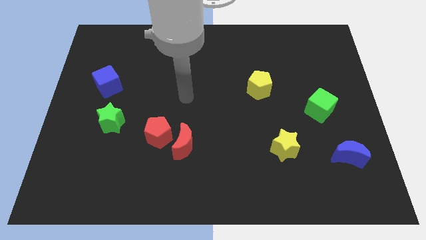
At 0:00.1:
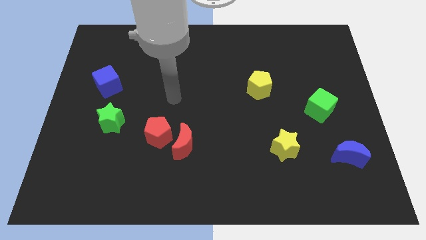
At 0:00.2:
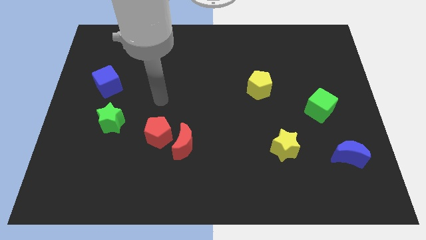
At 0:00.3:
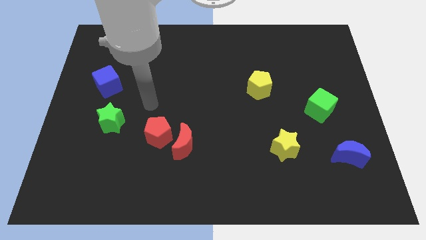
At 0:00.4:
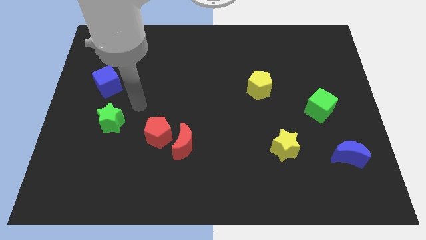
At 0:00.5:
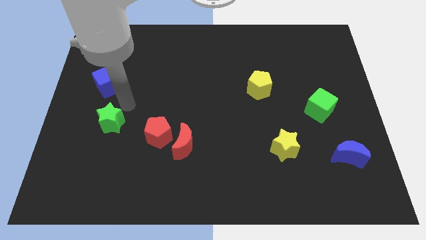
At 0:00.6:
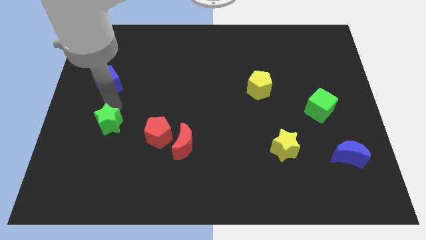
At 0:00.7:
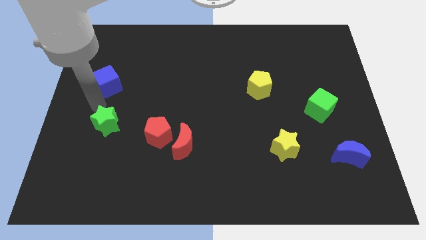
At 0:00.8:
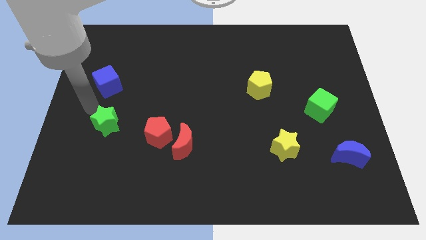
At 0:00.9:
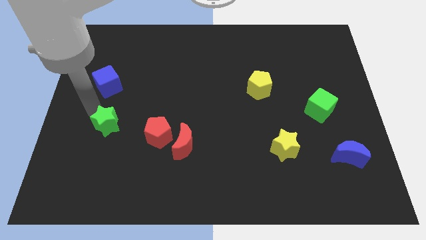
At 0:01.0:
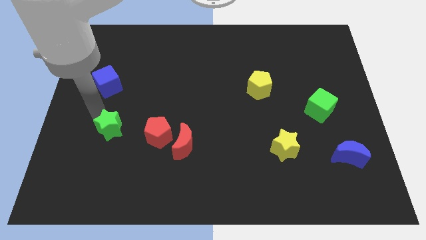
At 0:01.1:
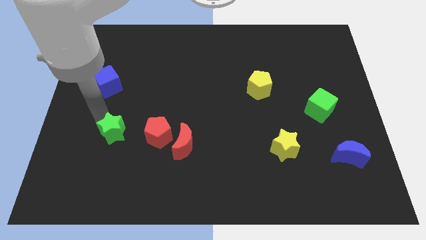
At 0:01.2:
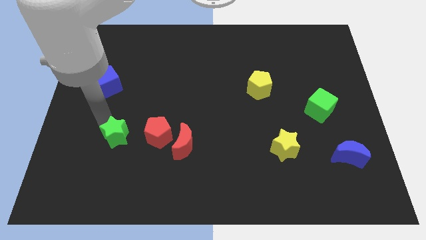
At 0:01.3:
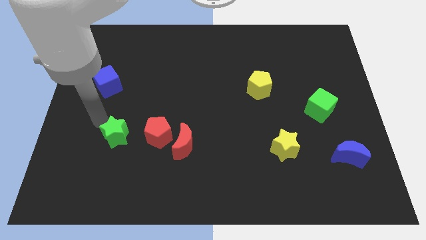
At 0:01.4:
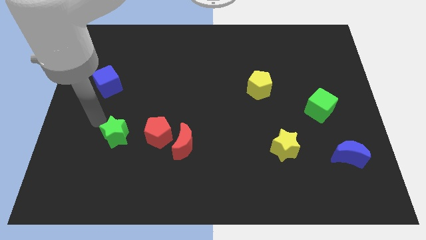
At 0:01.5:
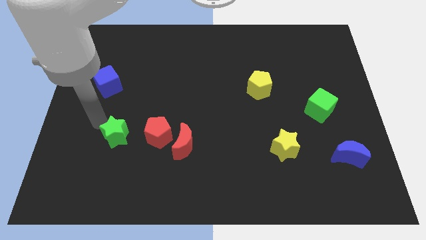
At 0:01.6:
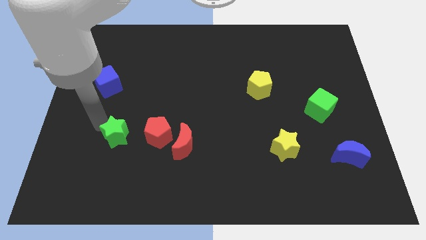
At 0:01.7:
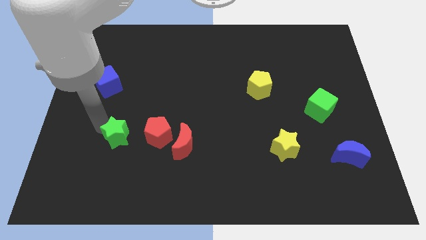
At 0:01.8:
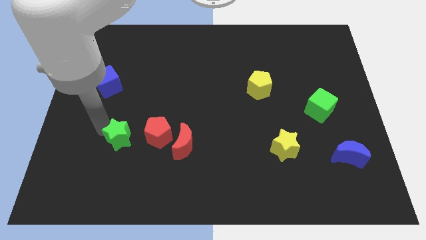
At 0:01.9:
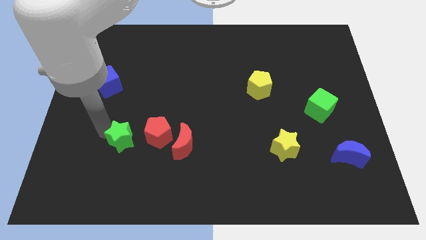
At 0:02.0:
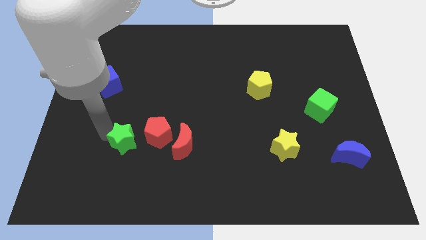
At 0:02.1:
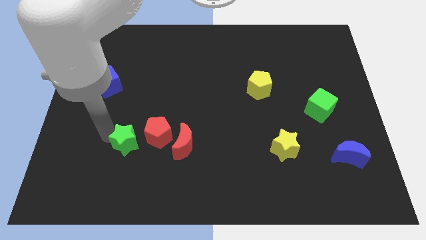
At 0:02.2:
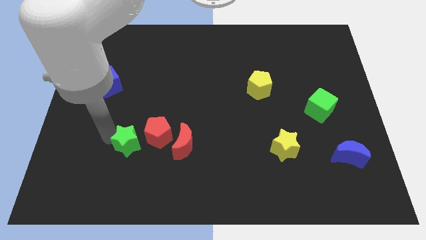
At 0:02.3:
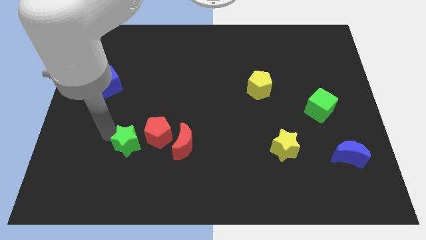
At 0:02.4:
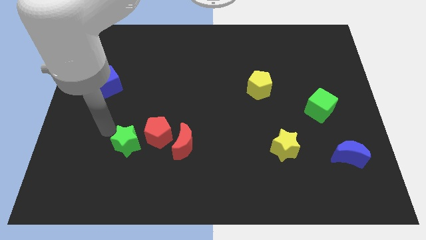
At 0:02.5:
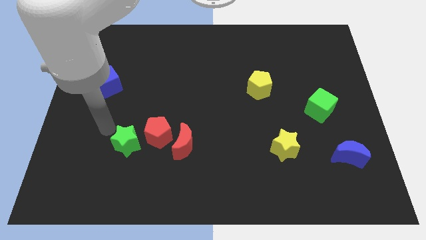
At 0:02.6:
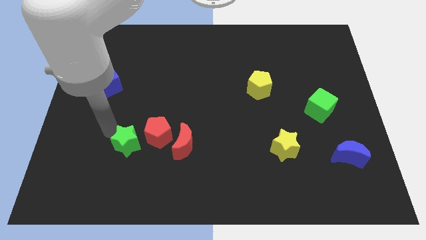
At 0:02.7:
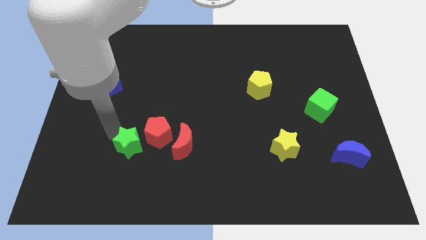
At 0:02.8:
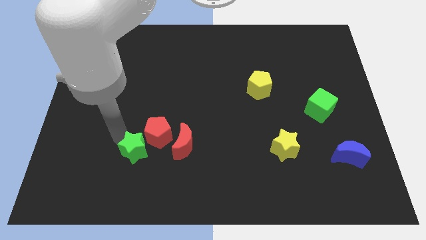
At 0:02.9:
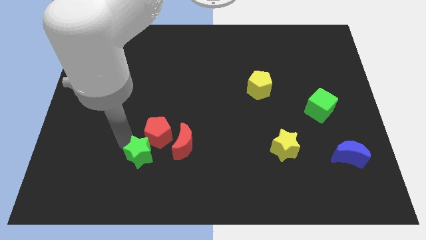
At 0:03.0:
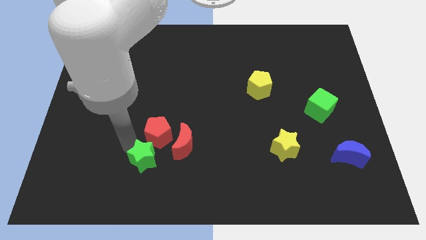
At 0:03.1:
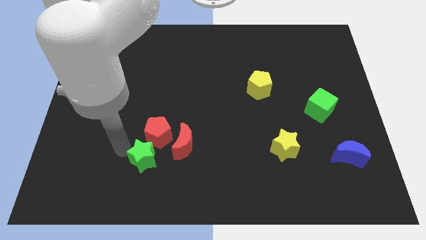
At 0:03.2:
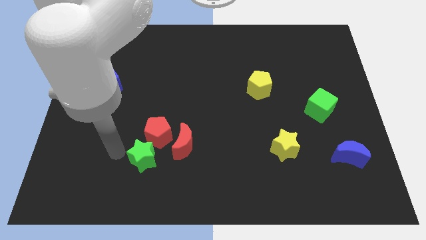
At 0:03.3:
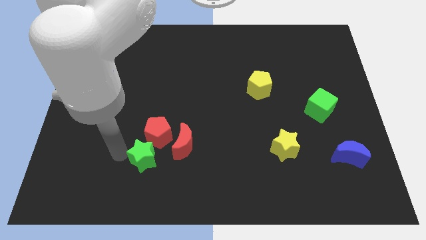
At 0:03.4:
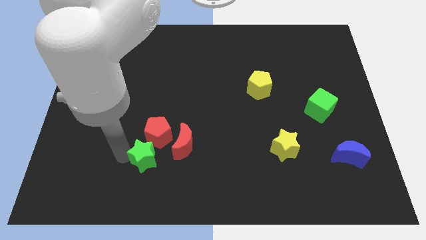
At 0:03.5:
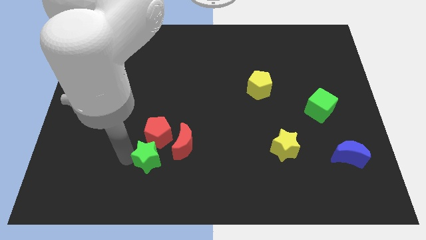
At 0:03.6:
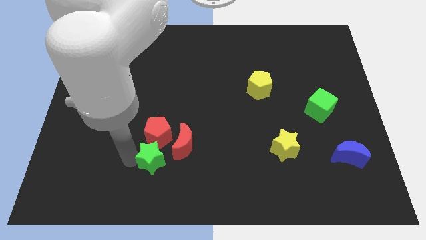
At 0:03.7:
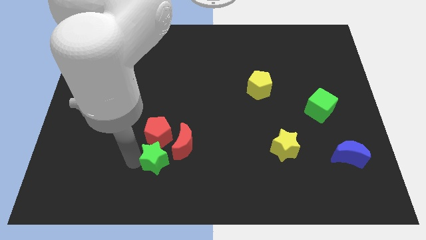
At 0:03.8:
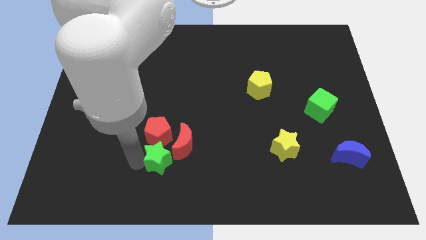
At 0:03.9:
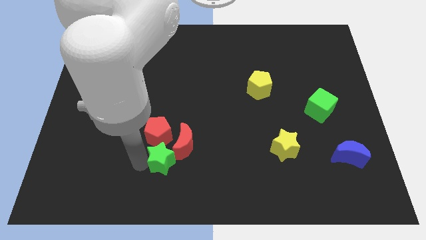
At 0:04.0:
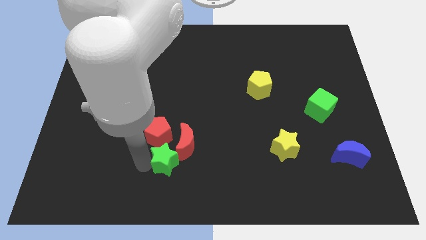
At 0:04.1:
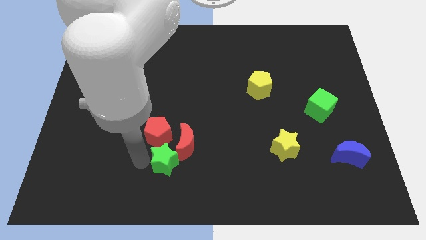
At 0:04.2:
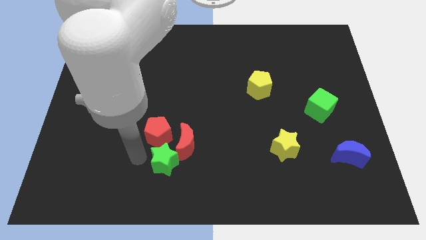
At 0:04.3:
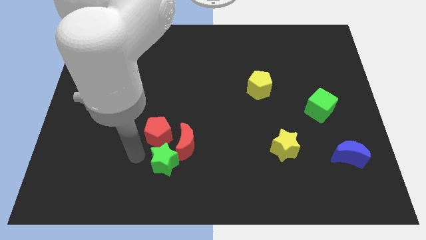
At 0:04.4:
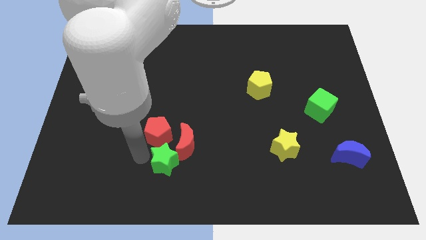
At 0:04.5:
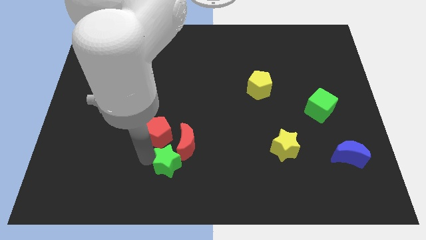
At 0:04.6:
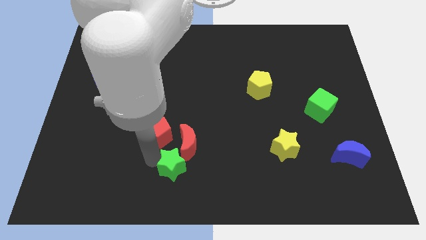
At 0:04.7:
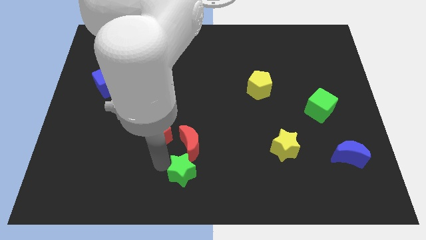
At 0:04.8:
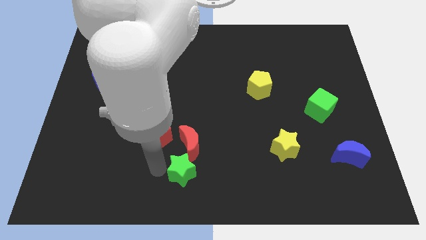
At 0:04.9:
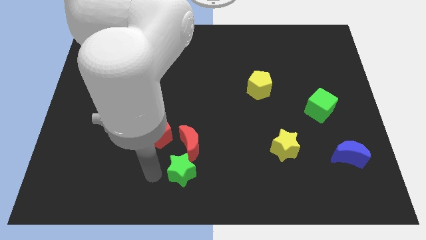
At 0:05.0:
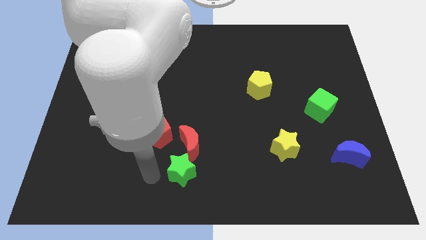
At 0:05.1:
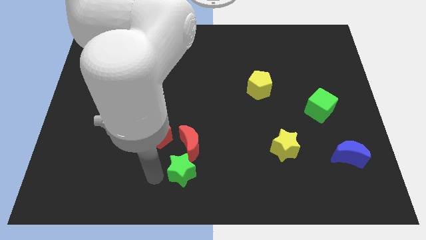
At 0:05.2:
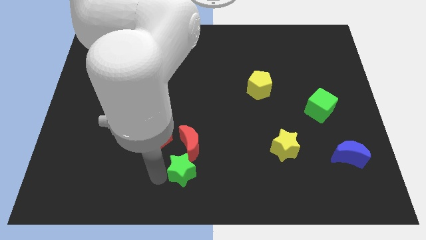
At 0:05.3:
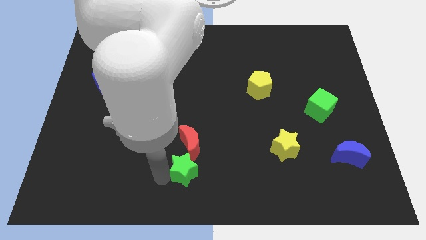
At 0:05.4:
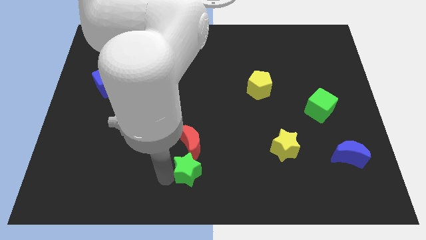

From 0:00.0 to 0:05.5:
move the green star diagonally down and to the right of the red moon

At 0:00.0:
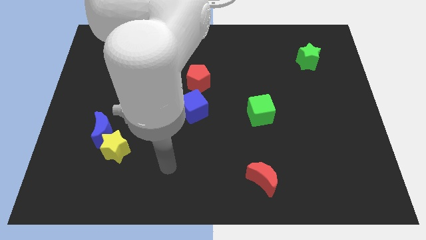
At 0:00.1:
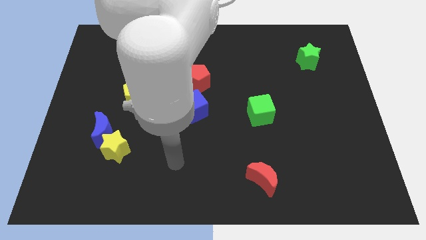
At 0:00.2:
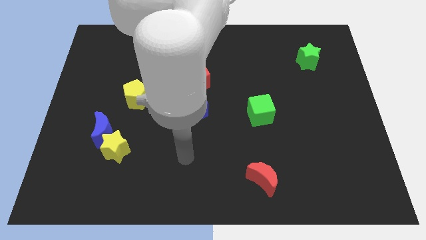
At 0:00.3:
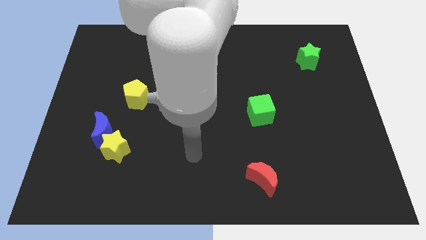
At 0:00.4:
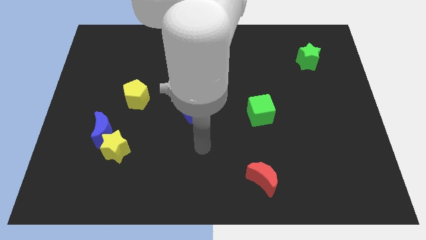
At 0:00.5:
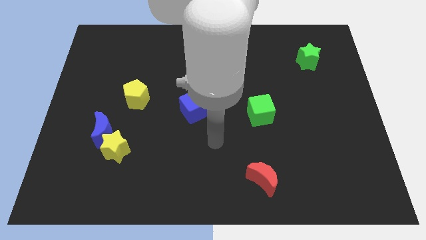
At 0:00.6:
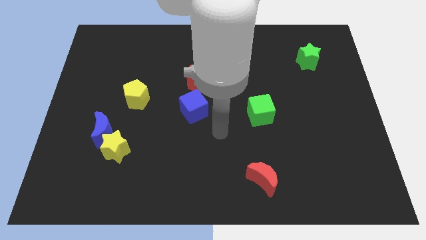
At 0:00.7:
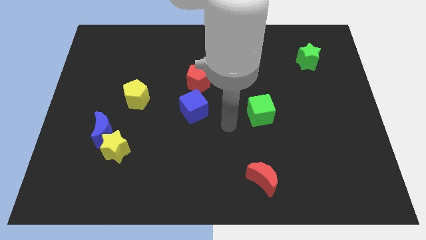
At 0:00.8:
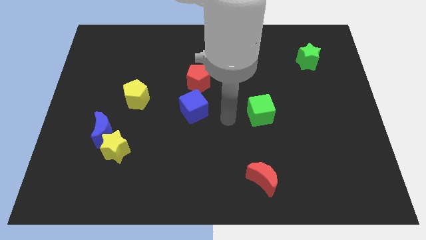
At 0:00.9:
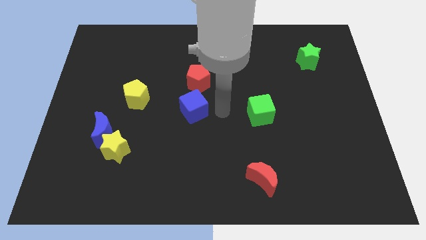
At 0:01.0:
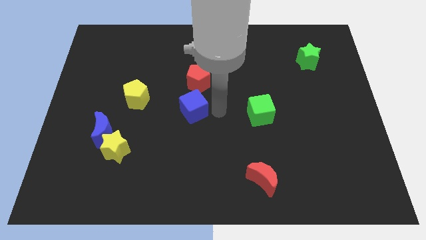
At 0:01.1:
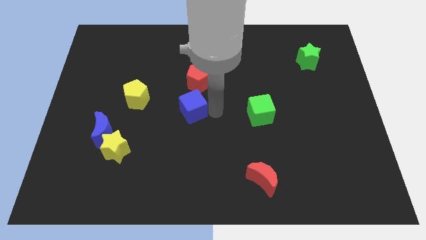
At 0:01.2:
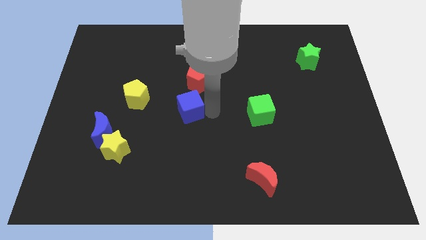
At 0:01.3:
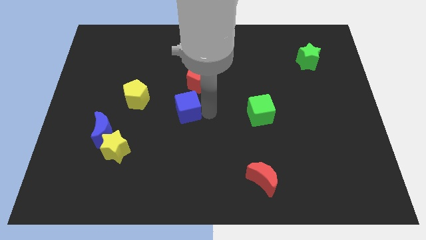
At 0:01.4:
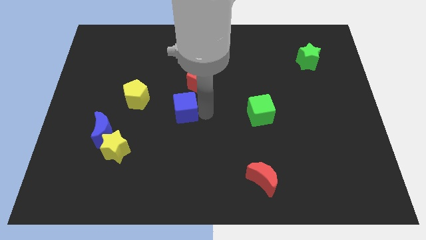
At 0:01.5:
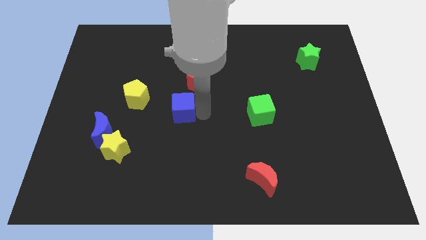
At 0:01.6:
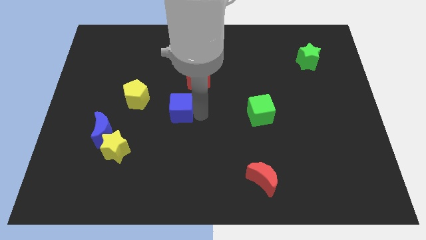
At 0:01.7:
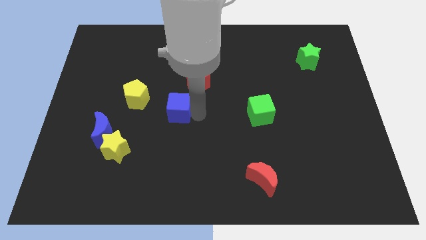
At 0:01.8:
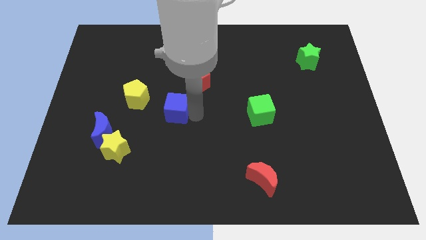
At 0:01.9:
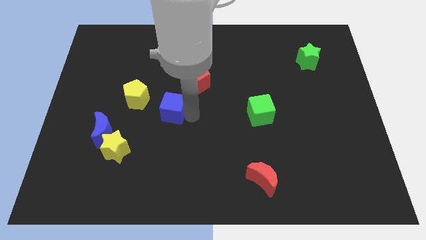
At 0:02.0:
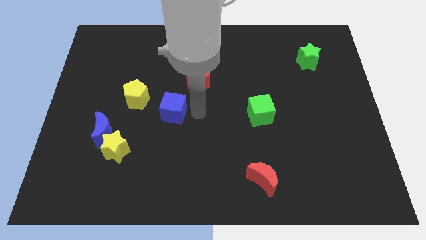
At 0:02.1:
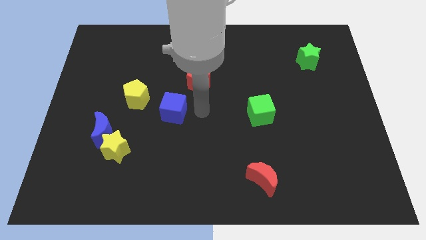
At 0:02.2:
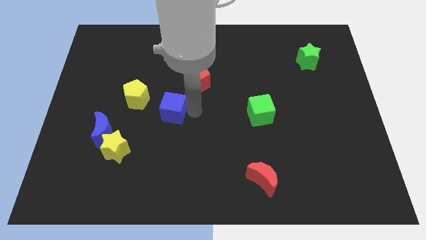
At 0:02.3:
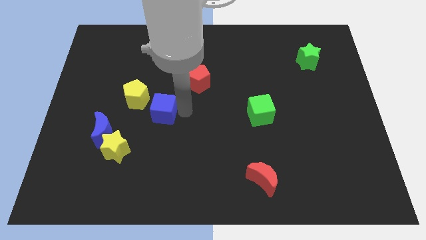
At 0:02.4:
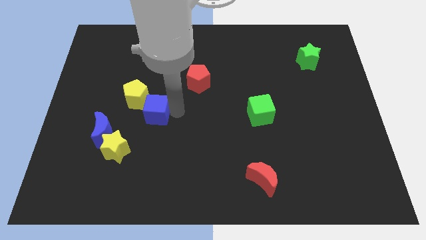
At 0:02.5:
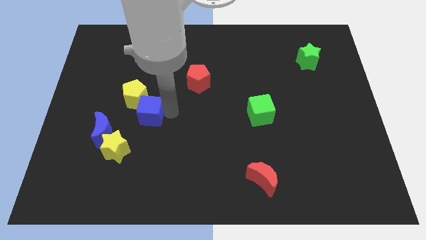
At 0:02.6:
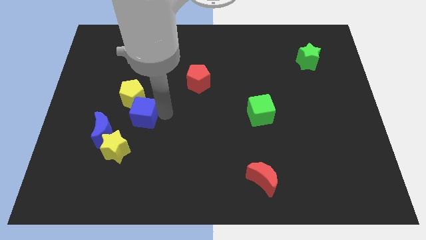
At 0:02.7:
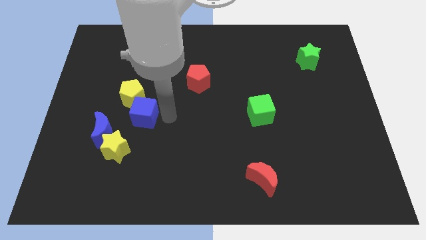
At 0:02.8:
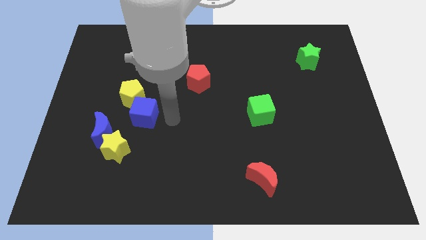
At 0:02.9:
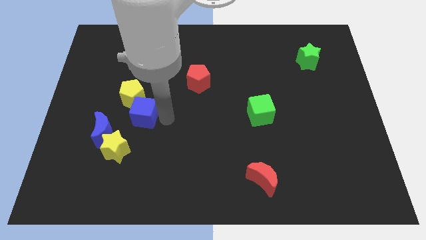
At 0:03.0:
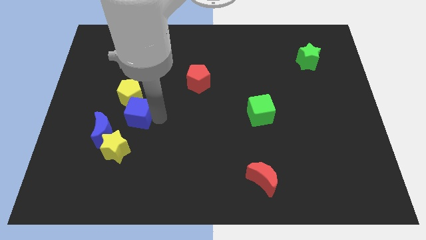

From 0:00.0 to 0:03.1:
push the blue cube to the top side of the yellow star
